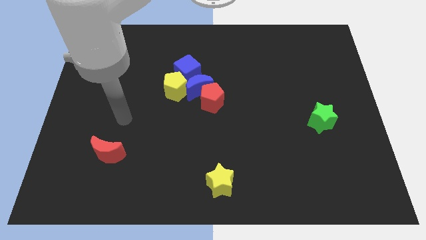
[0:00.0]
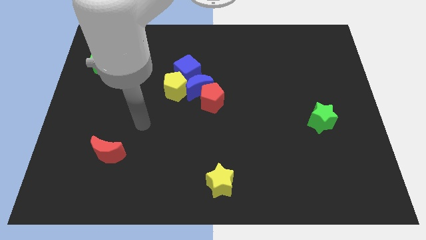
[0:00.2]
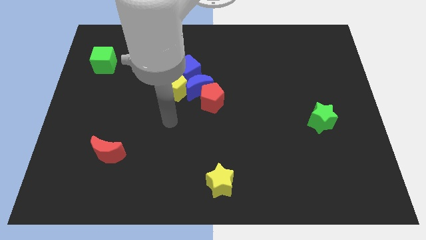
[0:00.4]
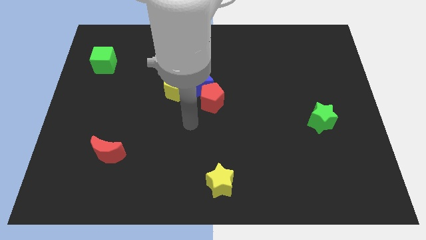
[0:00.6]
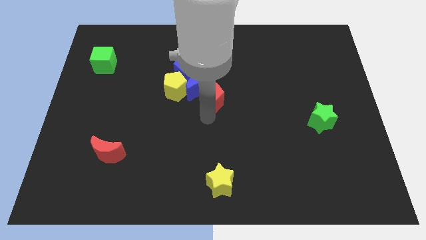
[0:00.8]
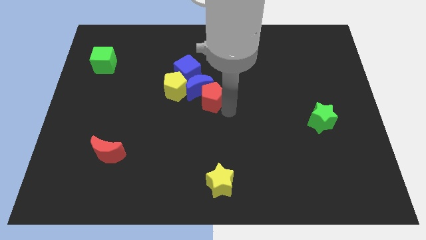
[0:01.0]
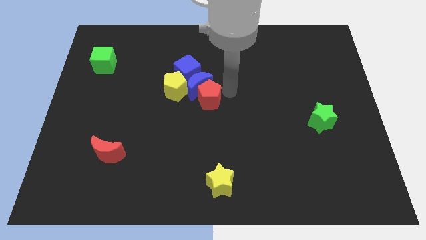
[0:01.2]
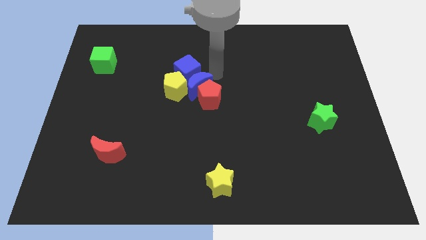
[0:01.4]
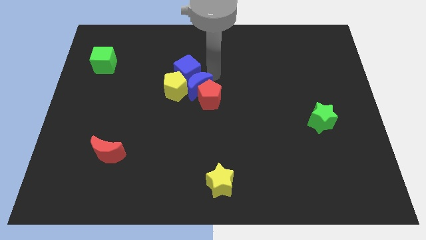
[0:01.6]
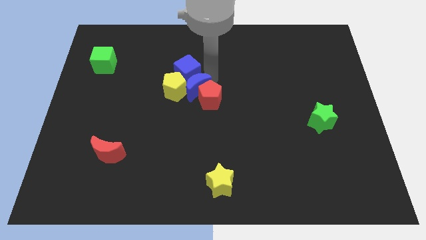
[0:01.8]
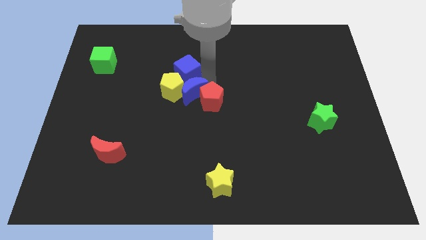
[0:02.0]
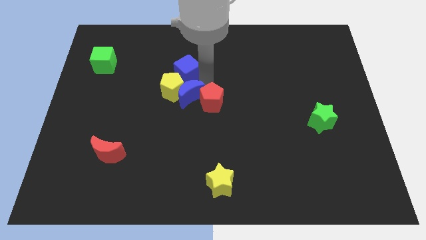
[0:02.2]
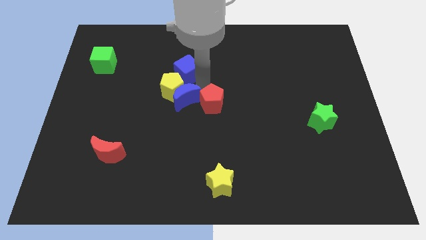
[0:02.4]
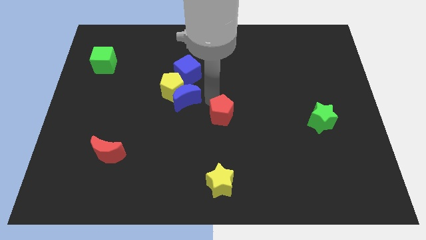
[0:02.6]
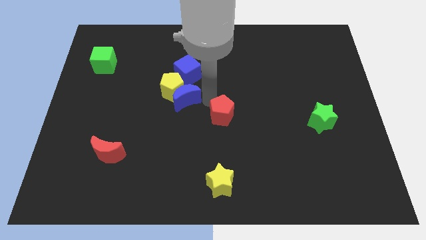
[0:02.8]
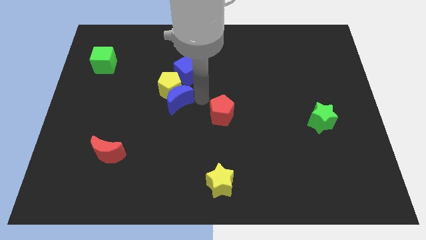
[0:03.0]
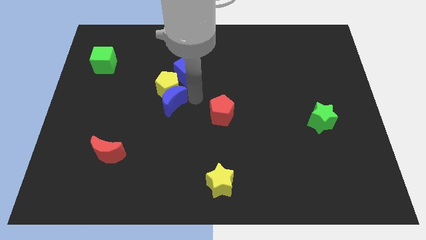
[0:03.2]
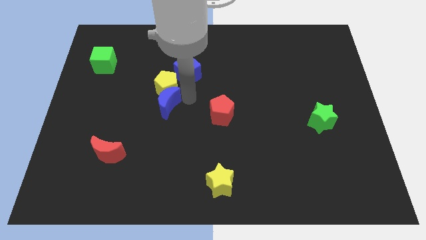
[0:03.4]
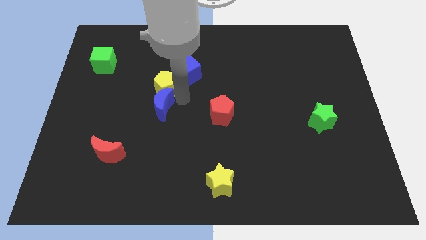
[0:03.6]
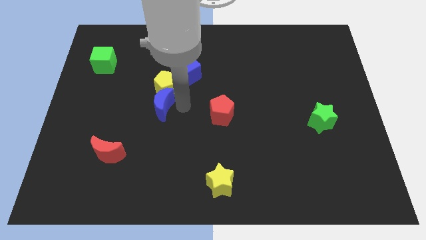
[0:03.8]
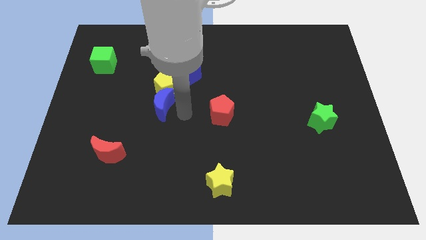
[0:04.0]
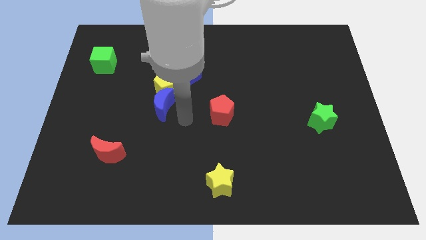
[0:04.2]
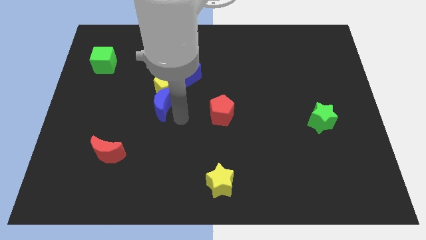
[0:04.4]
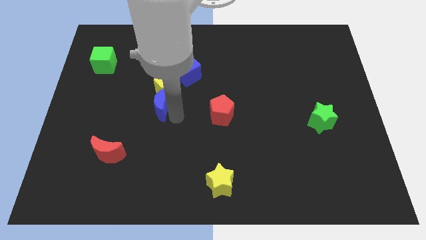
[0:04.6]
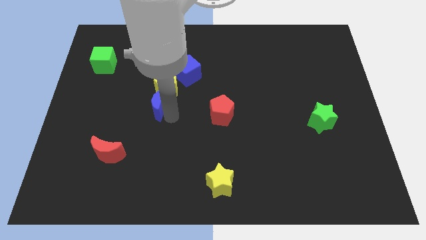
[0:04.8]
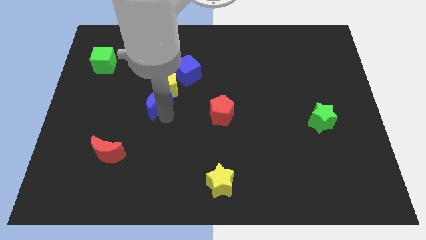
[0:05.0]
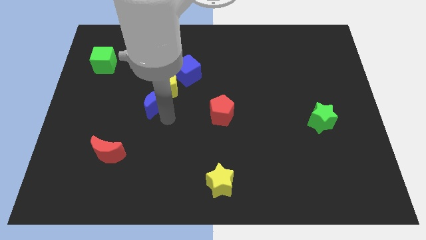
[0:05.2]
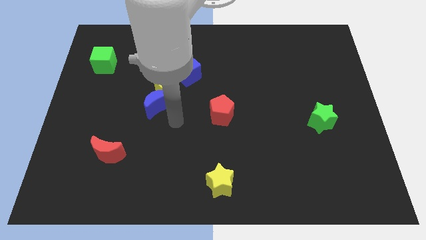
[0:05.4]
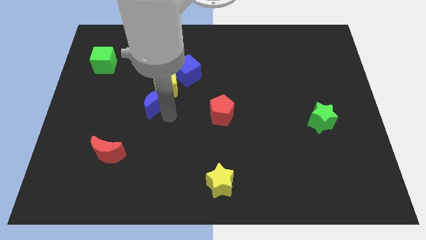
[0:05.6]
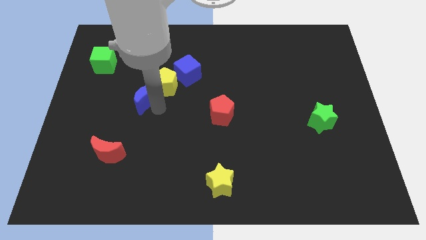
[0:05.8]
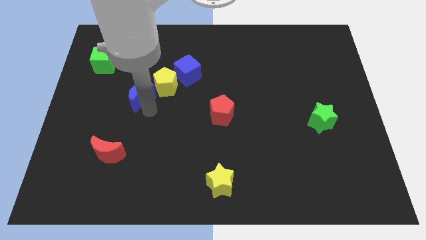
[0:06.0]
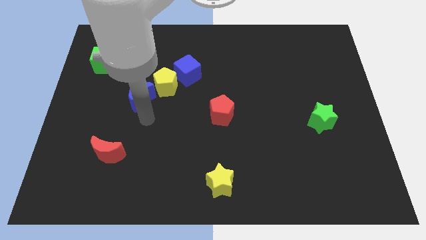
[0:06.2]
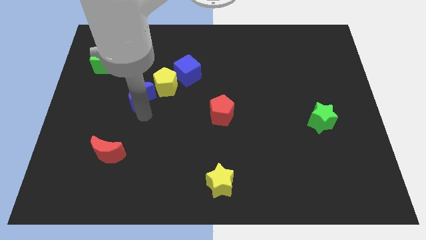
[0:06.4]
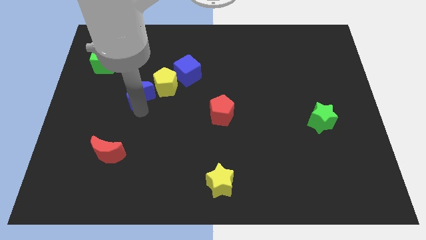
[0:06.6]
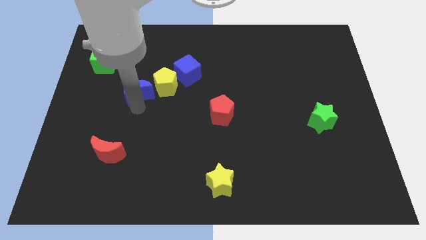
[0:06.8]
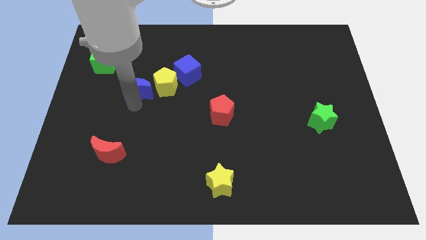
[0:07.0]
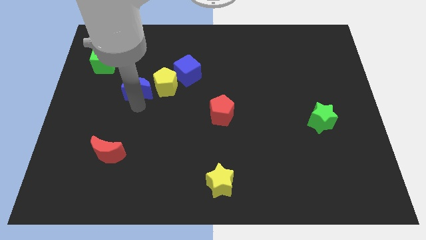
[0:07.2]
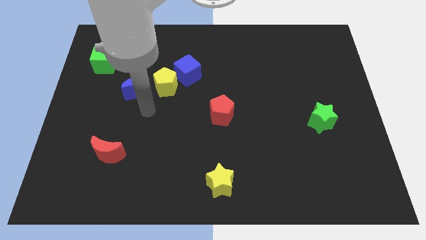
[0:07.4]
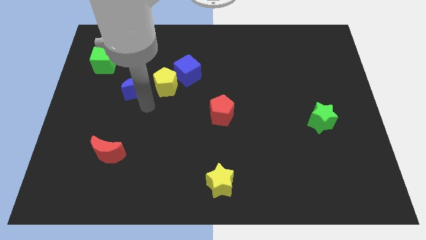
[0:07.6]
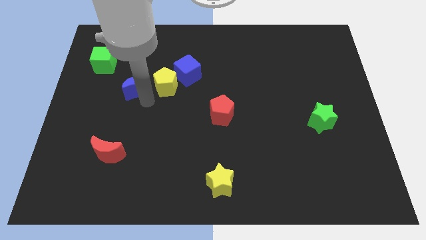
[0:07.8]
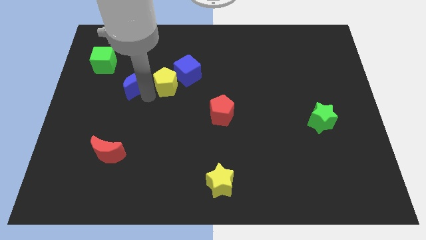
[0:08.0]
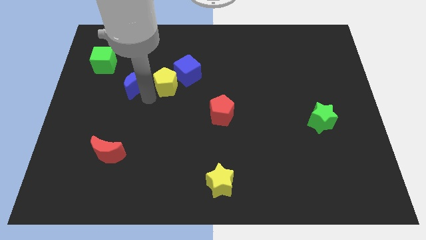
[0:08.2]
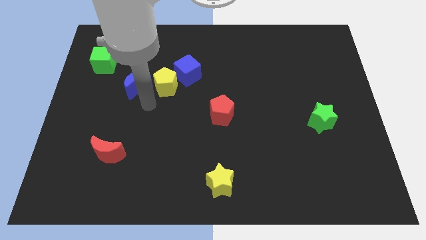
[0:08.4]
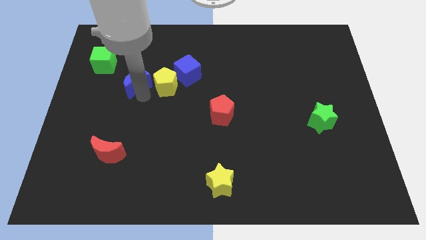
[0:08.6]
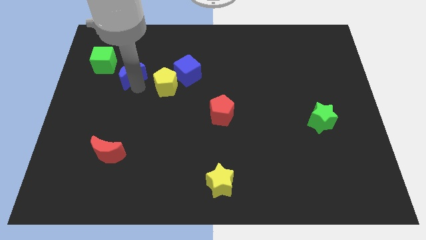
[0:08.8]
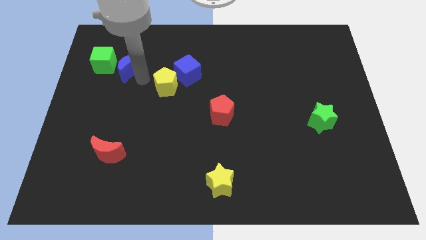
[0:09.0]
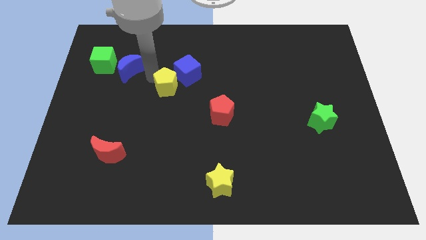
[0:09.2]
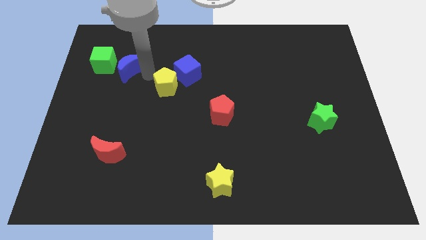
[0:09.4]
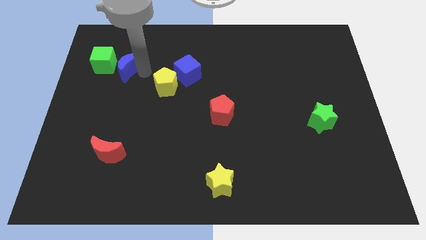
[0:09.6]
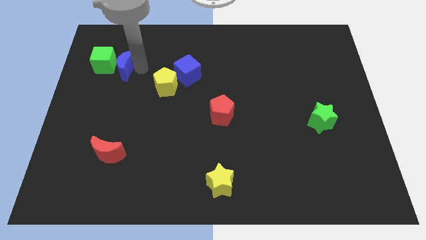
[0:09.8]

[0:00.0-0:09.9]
move the blue moon towards the green cube

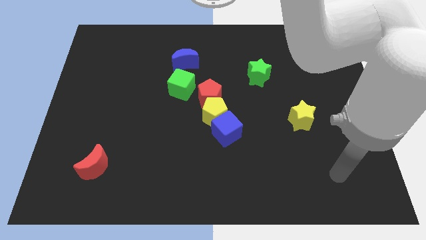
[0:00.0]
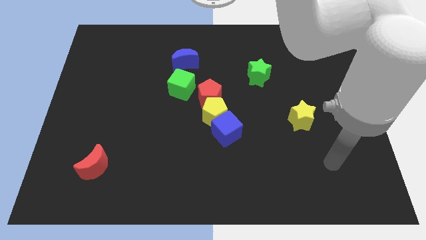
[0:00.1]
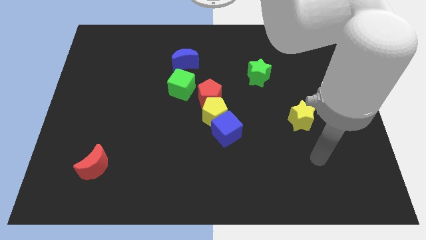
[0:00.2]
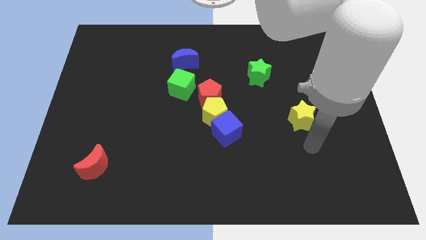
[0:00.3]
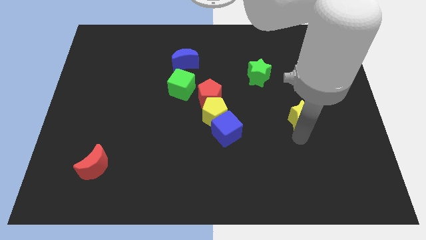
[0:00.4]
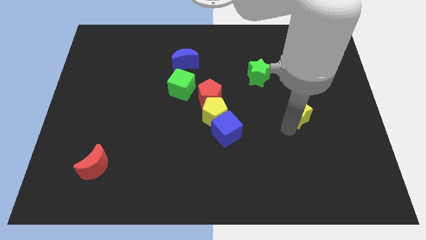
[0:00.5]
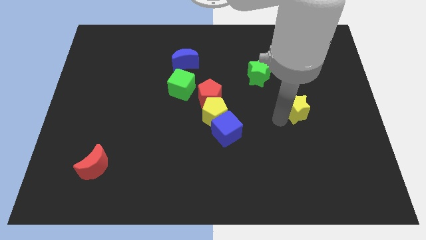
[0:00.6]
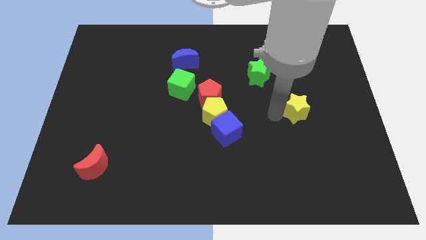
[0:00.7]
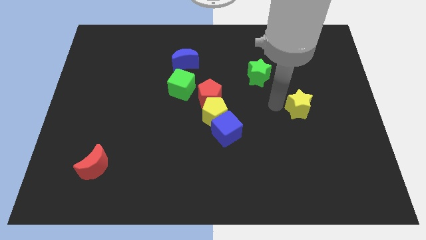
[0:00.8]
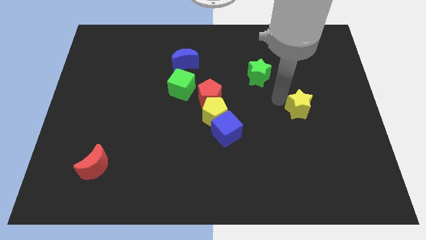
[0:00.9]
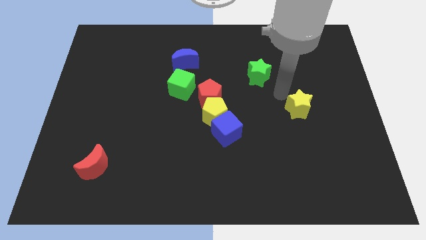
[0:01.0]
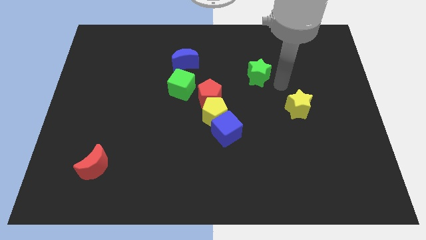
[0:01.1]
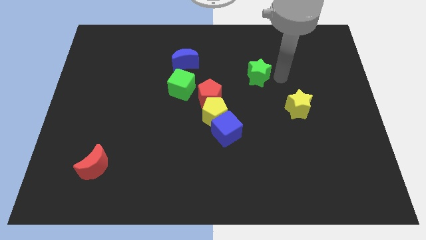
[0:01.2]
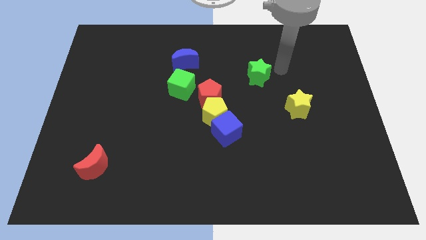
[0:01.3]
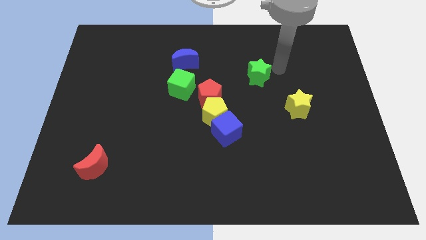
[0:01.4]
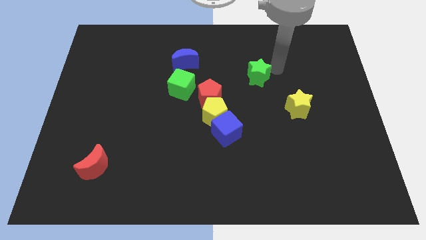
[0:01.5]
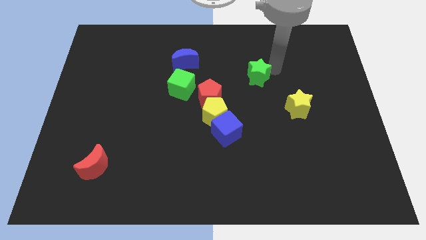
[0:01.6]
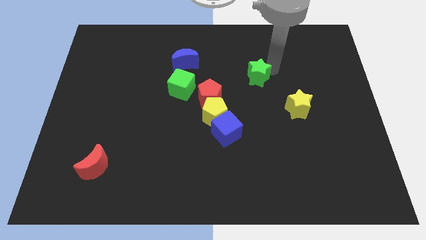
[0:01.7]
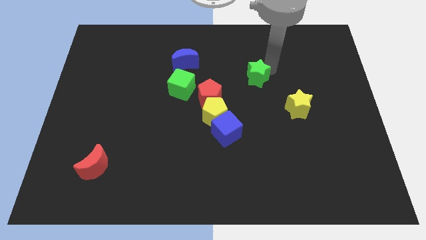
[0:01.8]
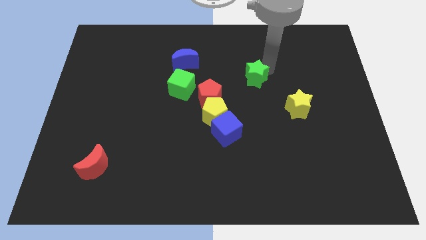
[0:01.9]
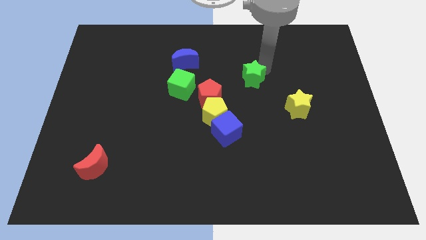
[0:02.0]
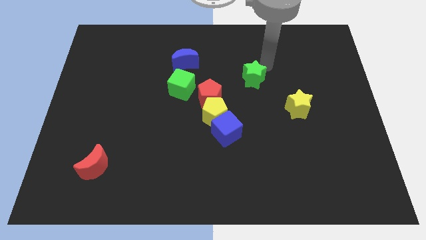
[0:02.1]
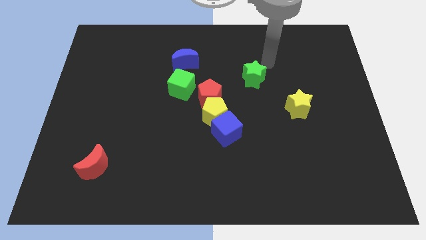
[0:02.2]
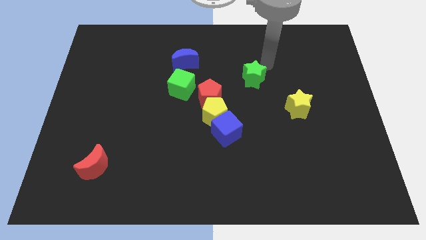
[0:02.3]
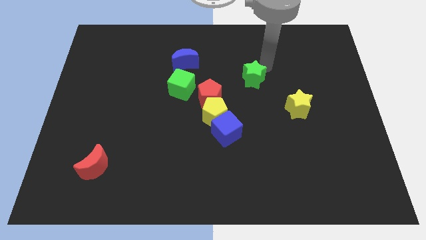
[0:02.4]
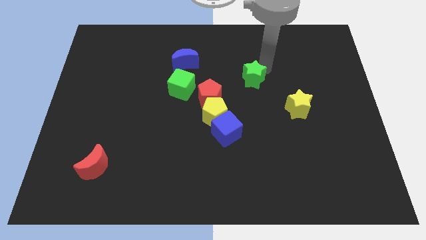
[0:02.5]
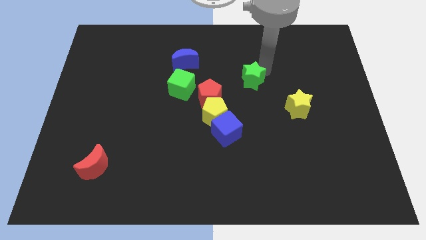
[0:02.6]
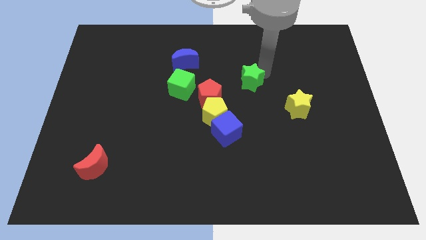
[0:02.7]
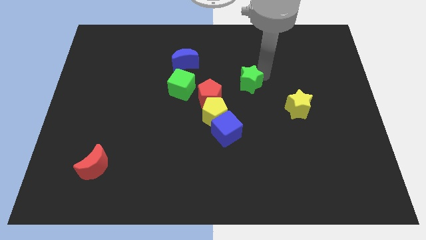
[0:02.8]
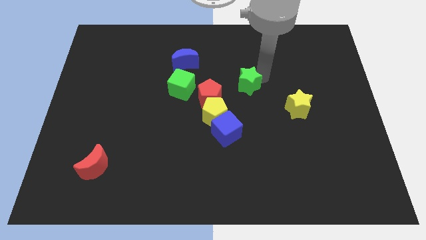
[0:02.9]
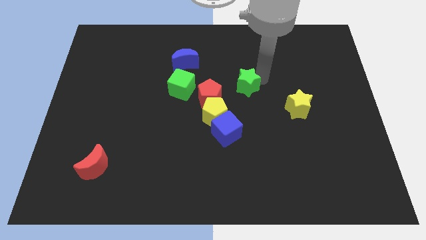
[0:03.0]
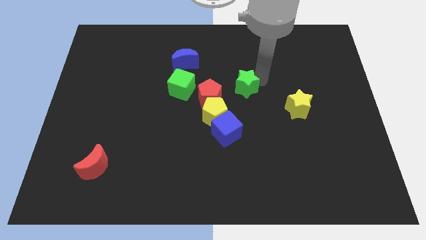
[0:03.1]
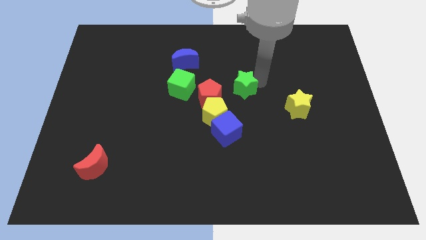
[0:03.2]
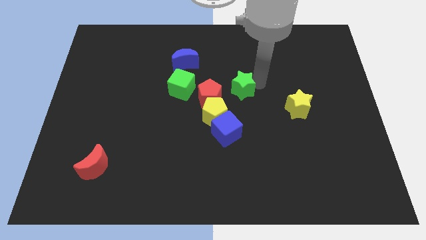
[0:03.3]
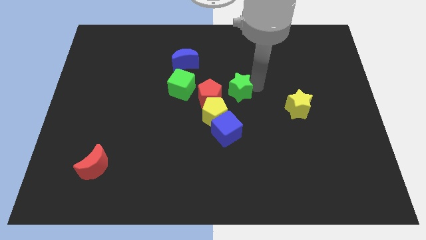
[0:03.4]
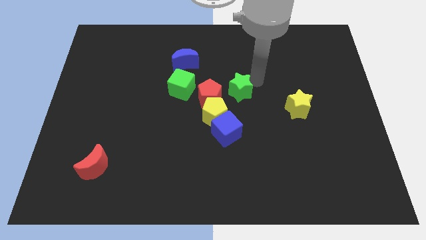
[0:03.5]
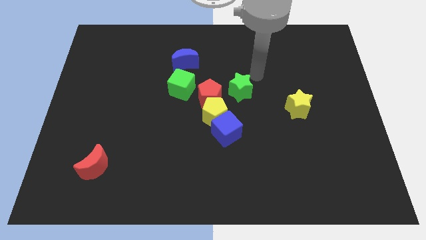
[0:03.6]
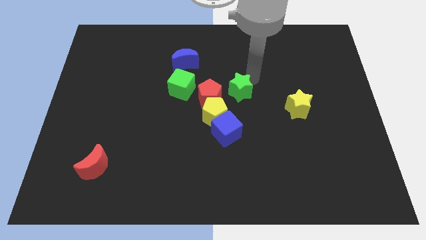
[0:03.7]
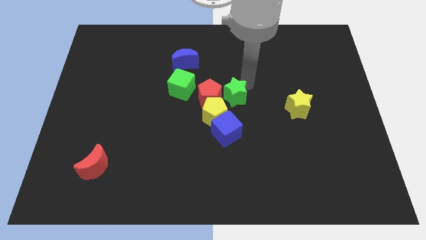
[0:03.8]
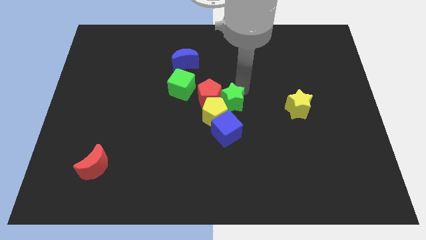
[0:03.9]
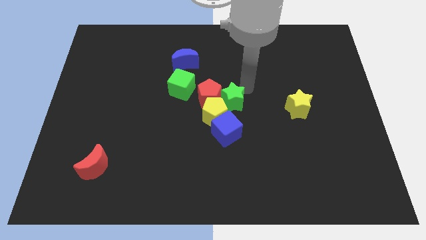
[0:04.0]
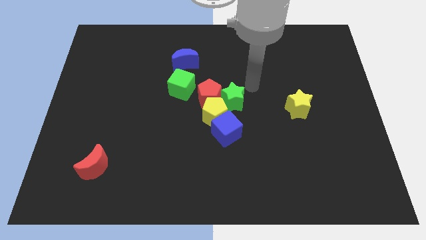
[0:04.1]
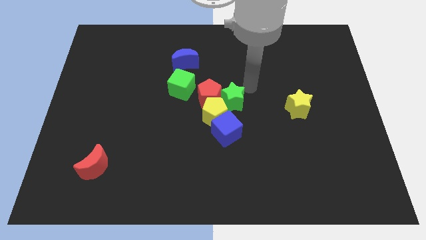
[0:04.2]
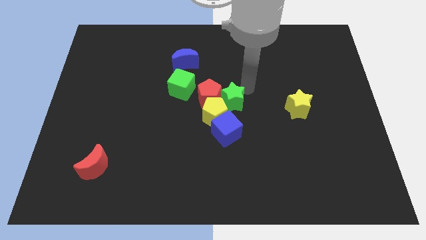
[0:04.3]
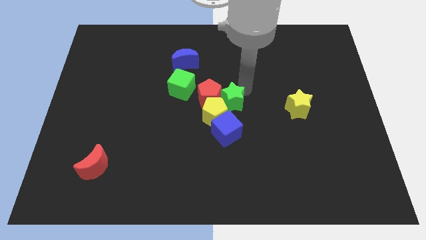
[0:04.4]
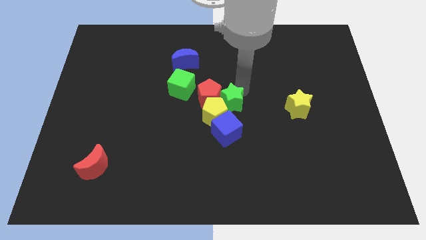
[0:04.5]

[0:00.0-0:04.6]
slide the green star next to the yellow pentagon
